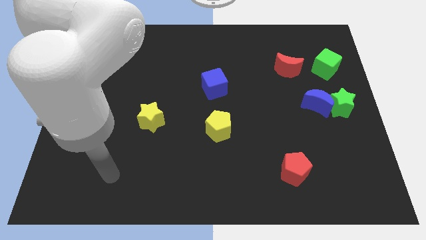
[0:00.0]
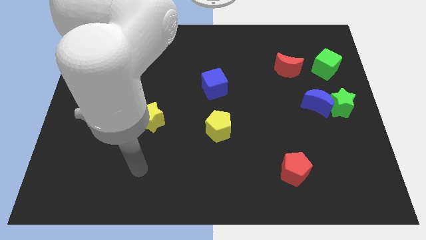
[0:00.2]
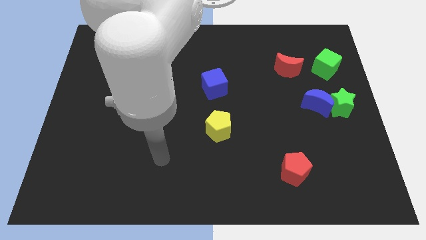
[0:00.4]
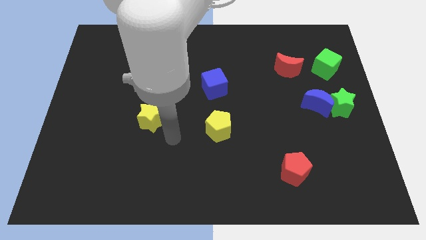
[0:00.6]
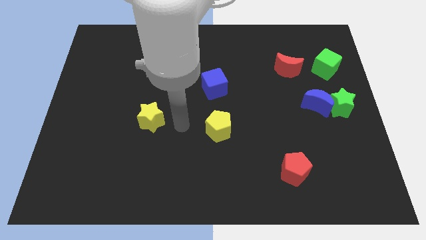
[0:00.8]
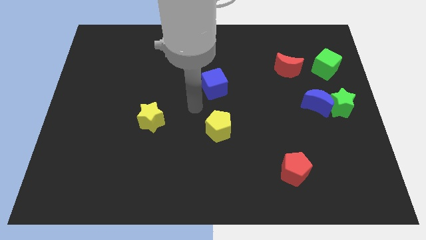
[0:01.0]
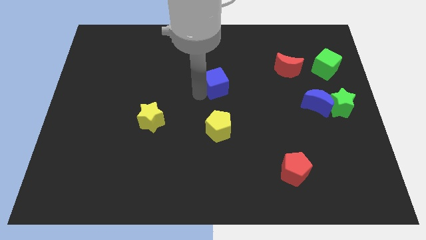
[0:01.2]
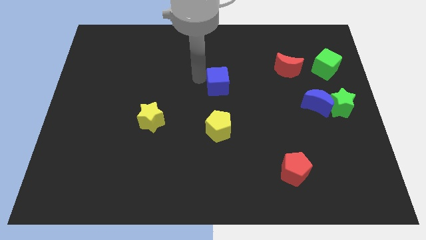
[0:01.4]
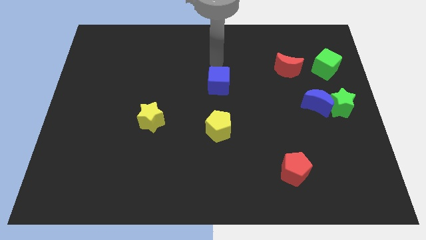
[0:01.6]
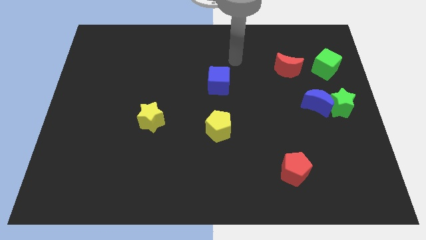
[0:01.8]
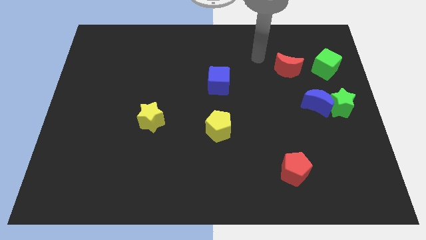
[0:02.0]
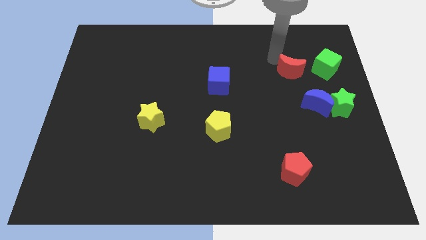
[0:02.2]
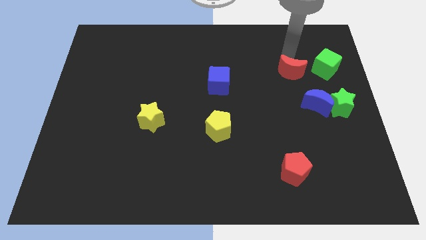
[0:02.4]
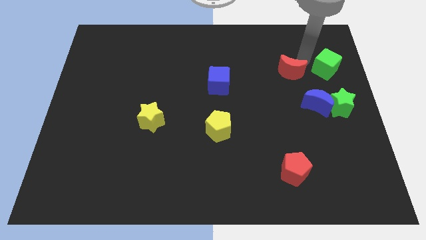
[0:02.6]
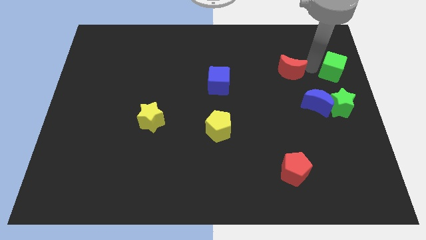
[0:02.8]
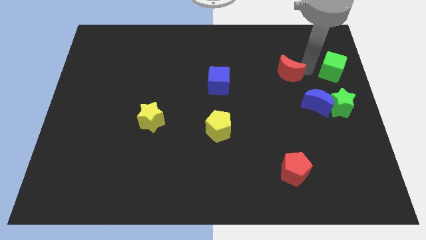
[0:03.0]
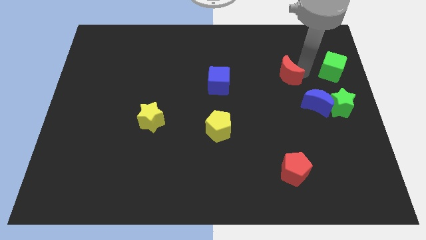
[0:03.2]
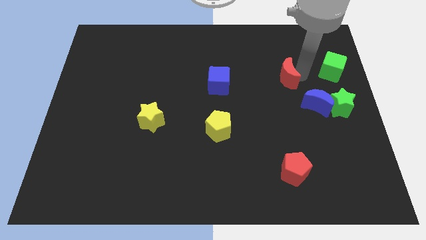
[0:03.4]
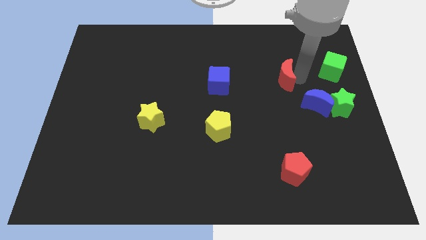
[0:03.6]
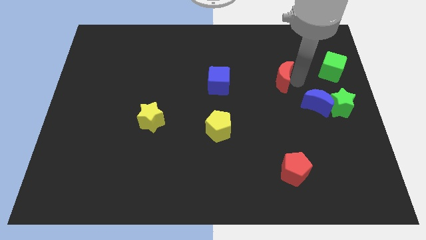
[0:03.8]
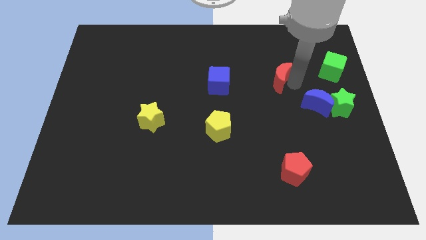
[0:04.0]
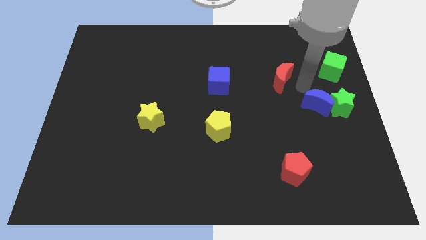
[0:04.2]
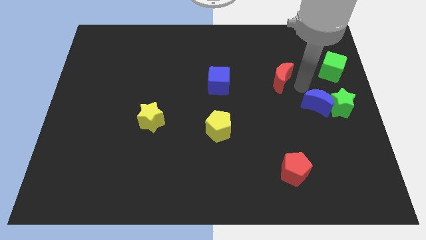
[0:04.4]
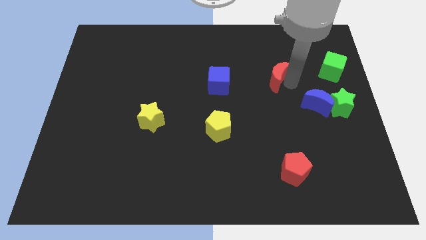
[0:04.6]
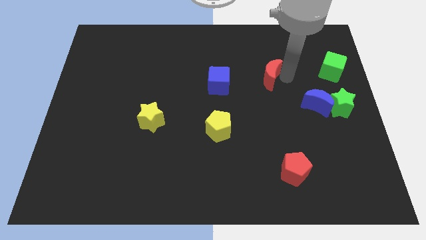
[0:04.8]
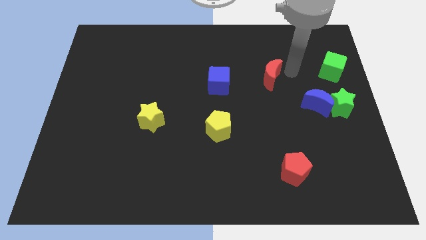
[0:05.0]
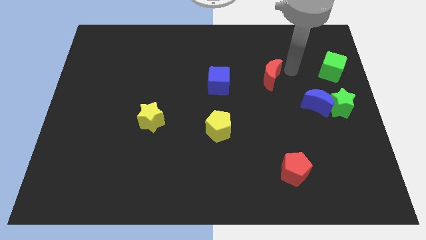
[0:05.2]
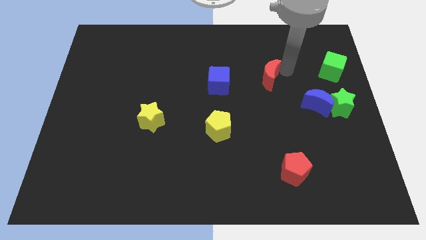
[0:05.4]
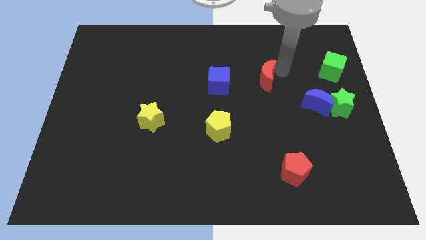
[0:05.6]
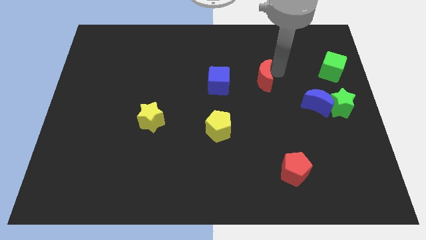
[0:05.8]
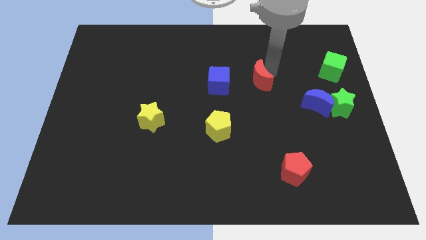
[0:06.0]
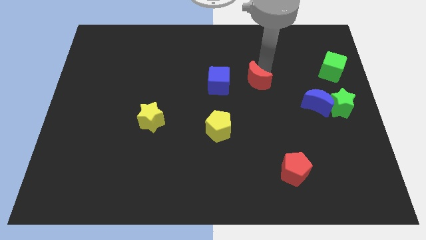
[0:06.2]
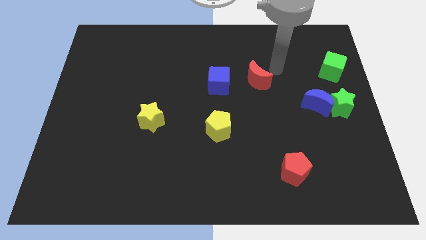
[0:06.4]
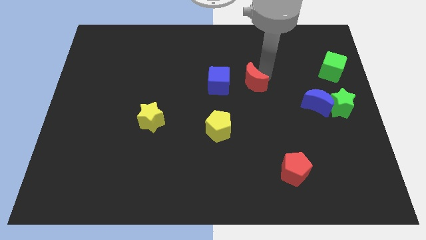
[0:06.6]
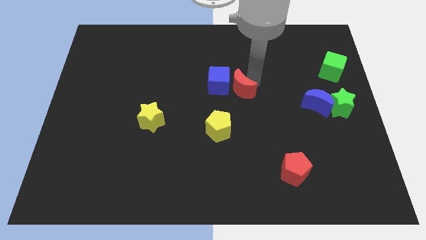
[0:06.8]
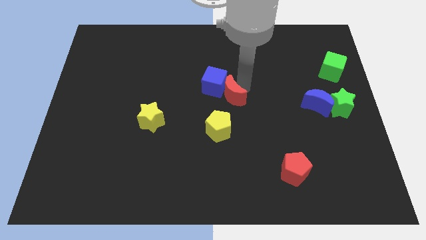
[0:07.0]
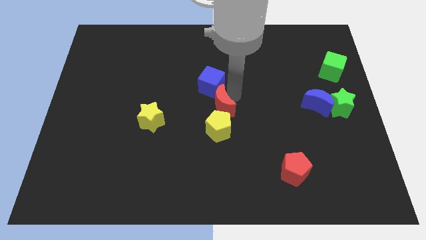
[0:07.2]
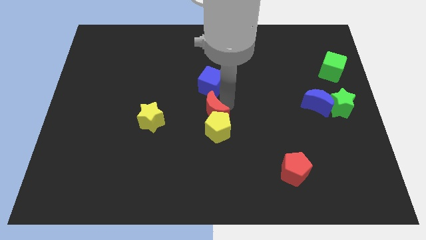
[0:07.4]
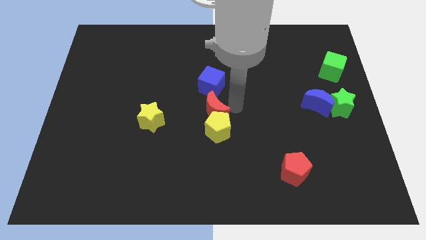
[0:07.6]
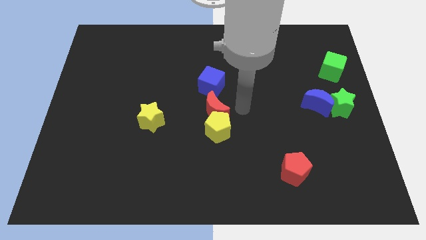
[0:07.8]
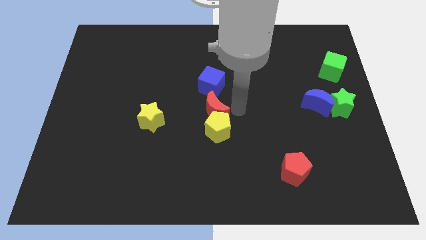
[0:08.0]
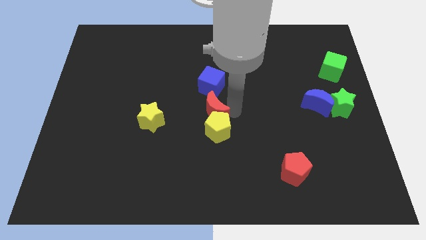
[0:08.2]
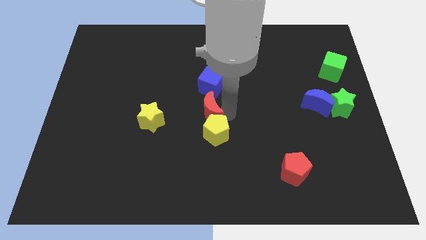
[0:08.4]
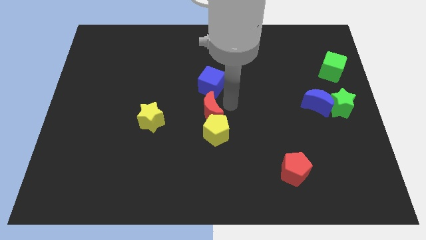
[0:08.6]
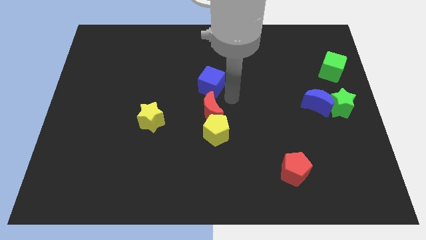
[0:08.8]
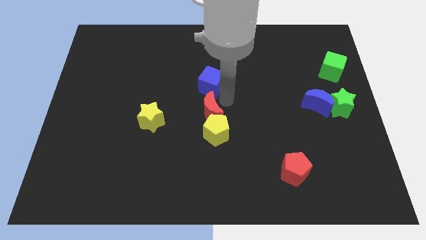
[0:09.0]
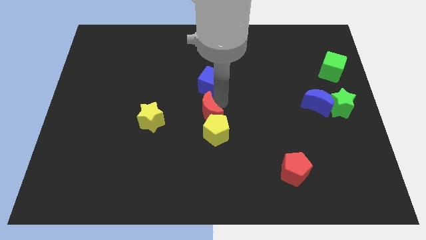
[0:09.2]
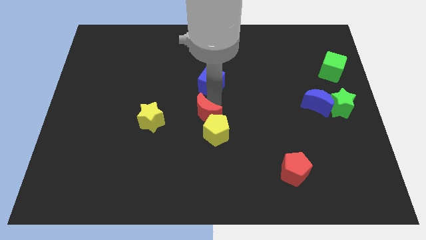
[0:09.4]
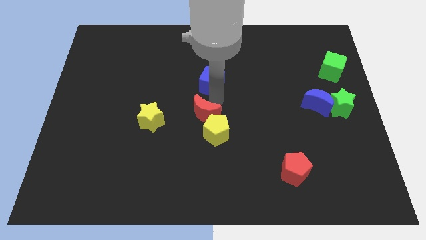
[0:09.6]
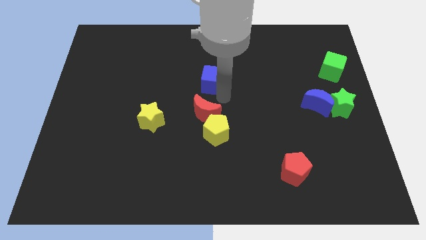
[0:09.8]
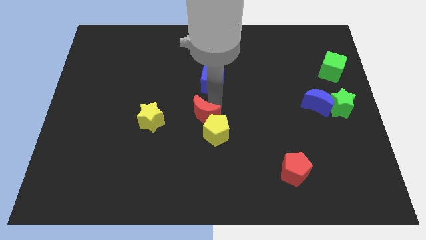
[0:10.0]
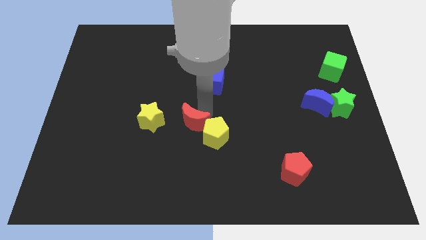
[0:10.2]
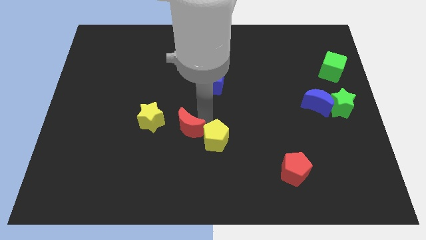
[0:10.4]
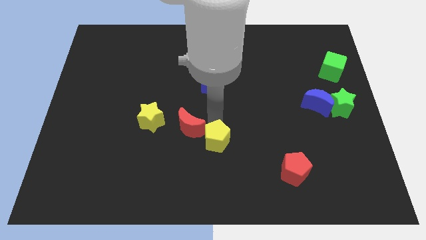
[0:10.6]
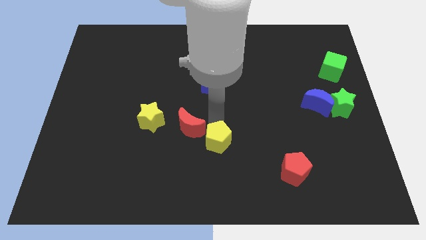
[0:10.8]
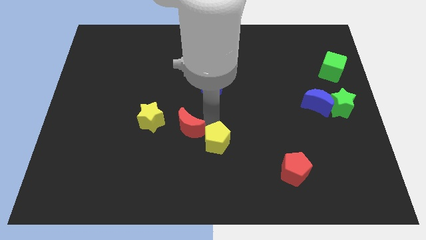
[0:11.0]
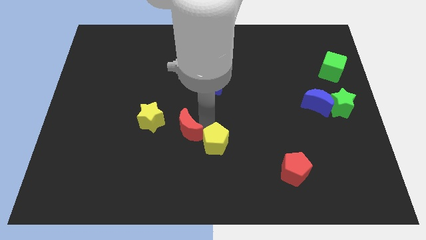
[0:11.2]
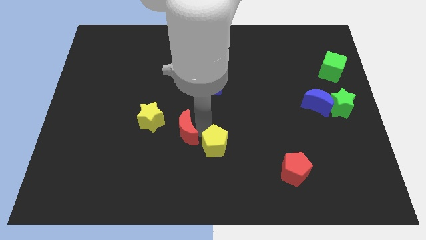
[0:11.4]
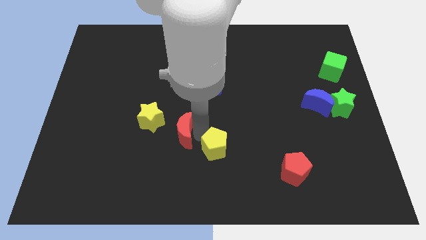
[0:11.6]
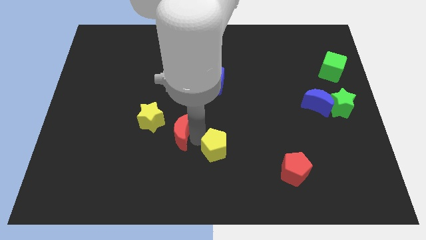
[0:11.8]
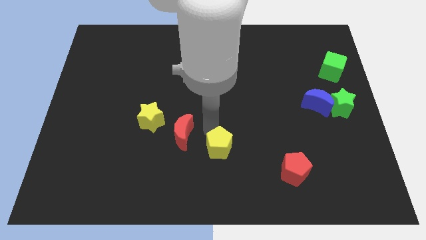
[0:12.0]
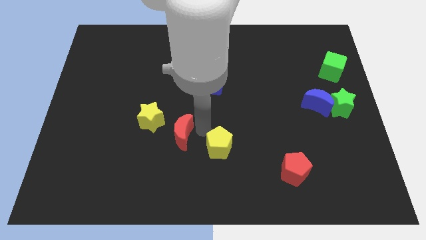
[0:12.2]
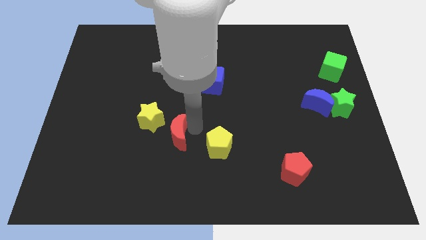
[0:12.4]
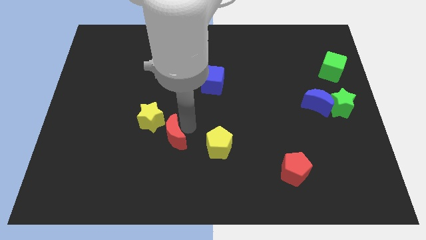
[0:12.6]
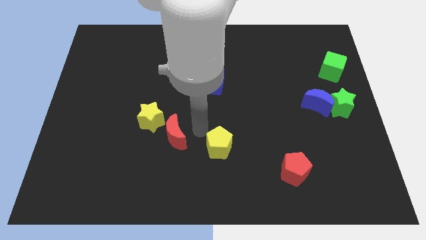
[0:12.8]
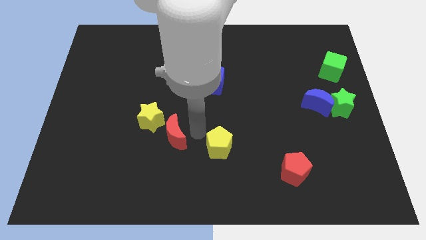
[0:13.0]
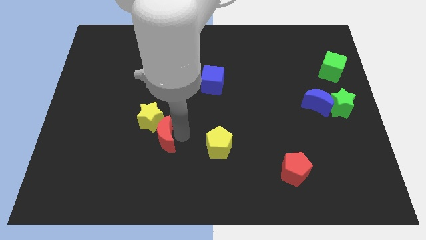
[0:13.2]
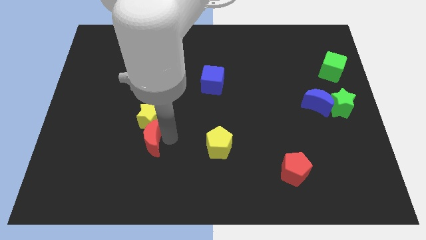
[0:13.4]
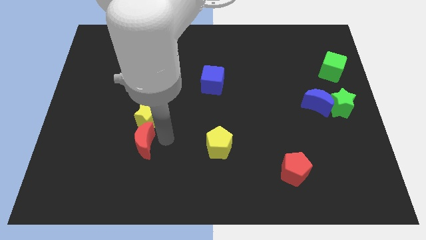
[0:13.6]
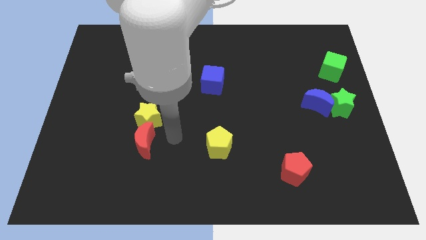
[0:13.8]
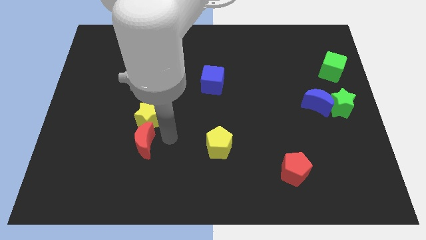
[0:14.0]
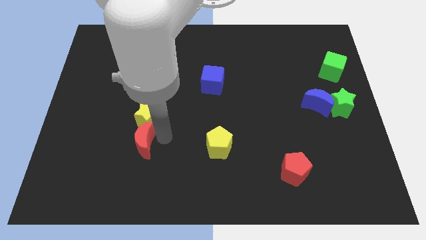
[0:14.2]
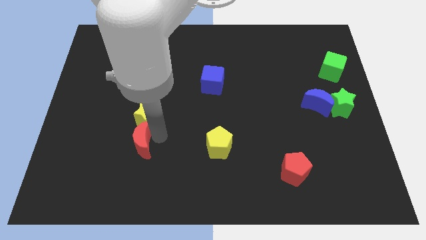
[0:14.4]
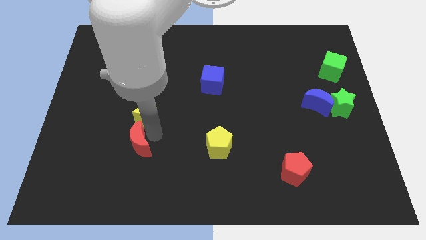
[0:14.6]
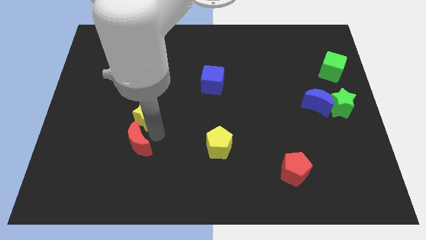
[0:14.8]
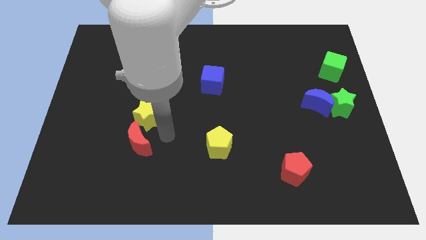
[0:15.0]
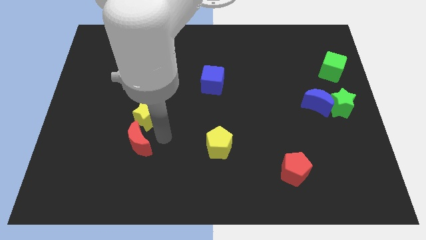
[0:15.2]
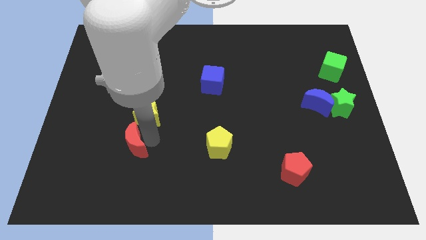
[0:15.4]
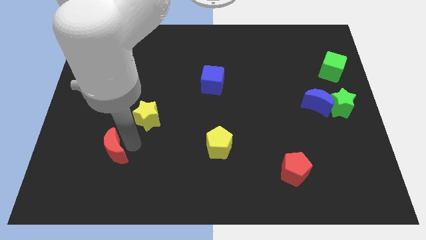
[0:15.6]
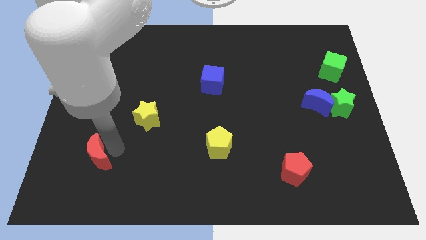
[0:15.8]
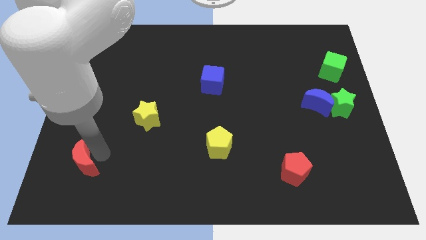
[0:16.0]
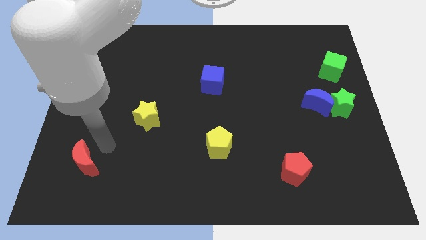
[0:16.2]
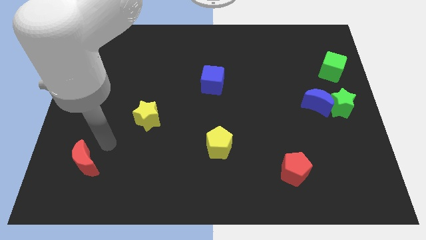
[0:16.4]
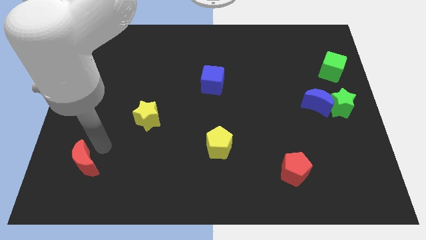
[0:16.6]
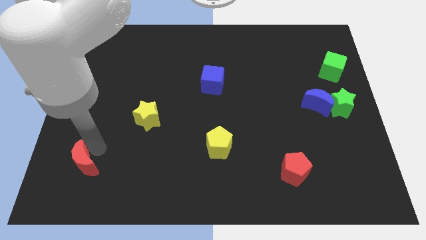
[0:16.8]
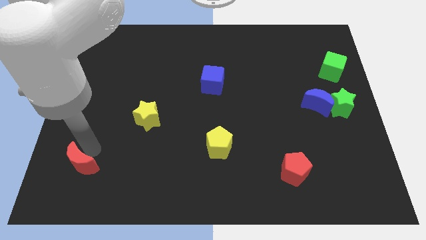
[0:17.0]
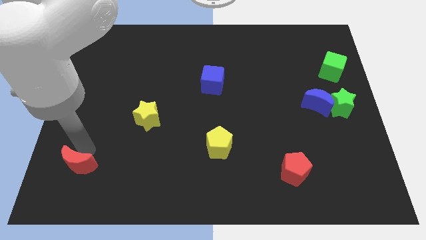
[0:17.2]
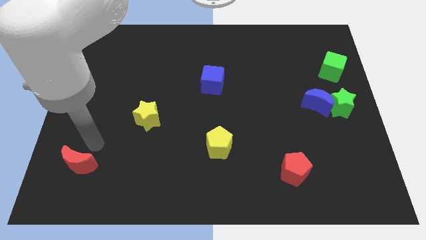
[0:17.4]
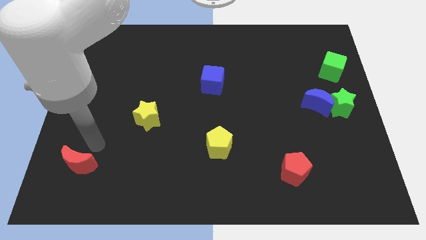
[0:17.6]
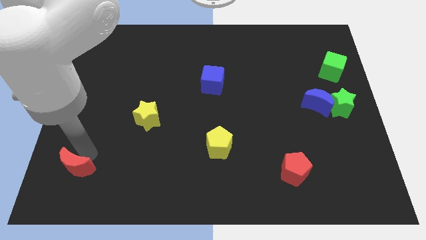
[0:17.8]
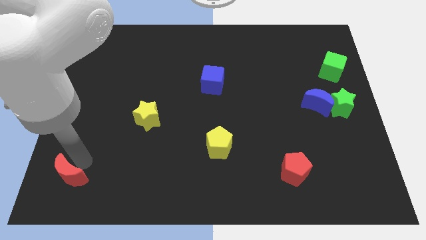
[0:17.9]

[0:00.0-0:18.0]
move the red moon to the bottom left corner
